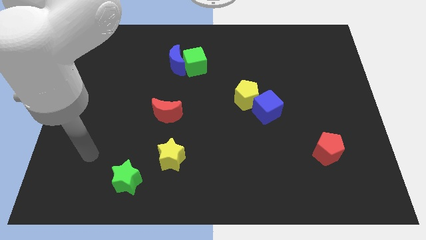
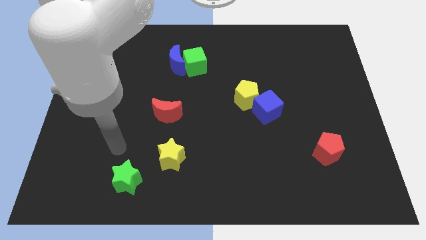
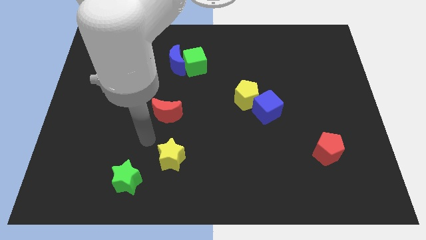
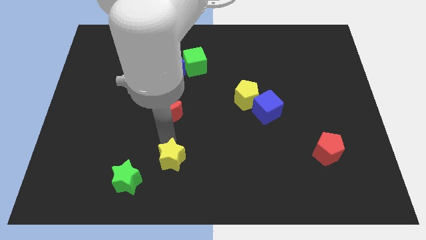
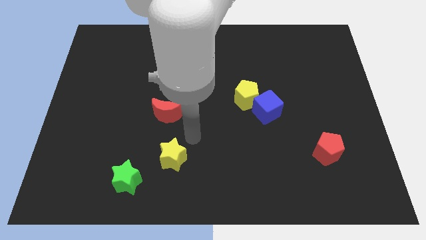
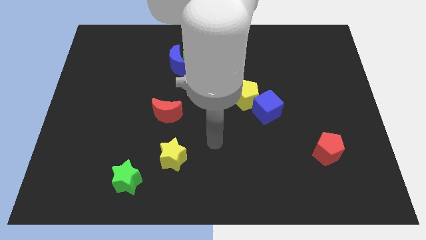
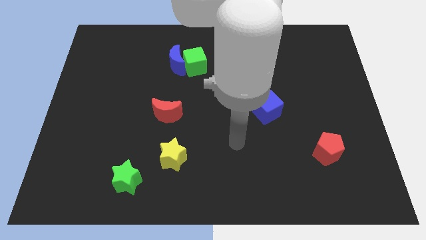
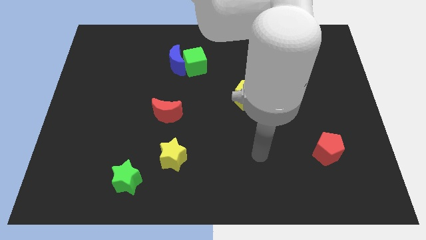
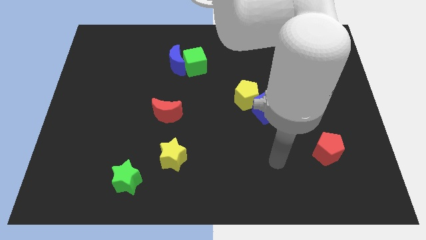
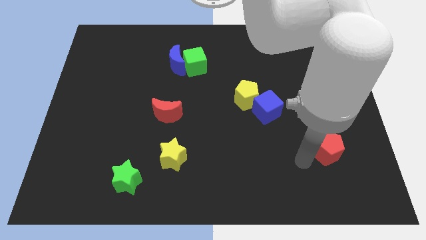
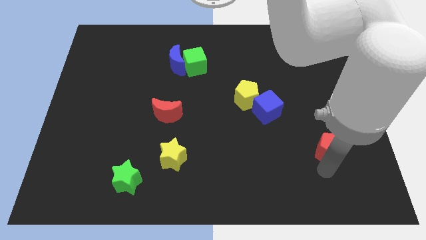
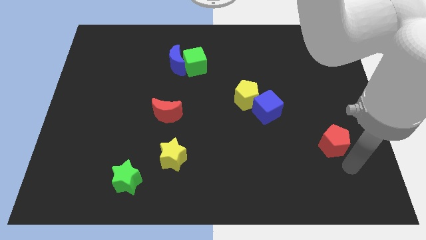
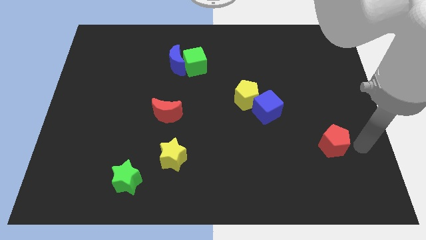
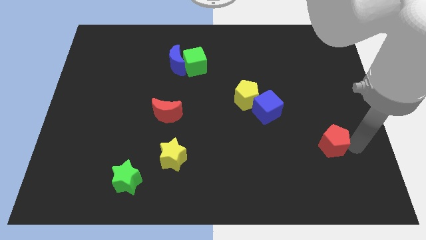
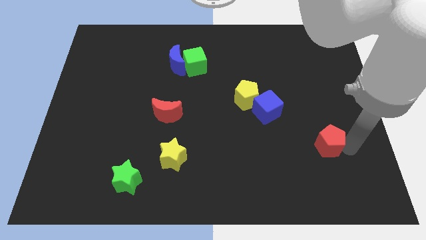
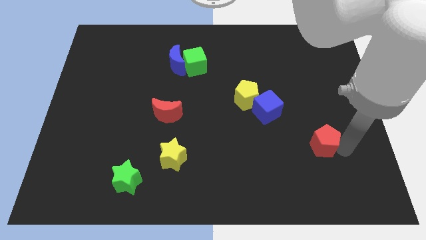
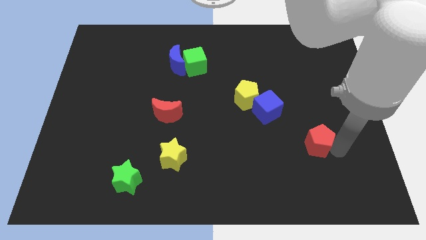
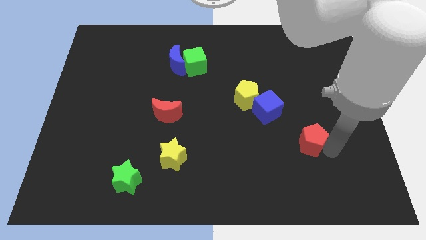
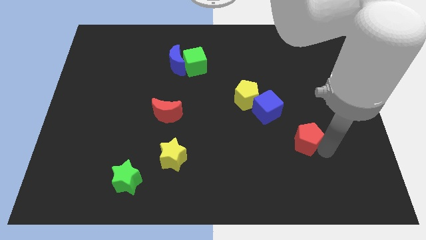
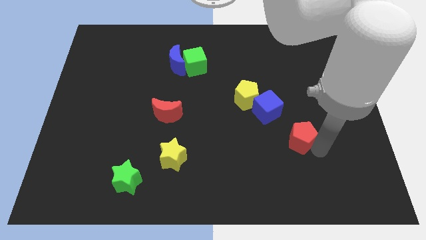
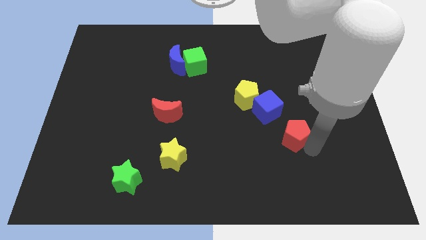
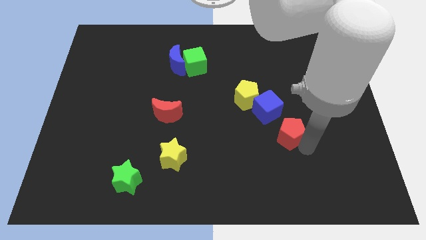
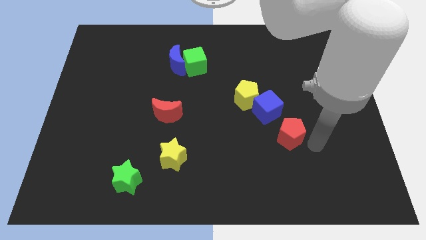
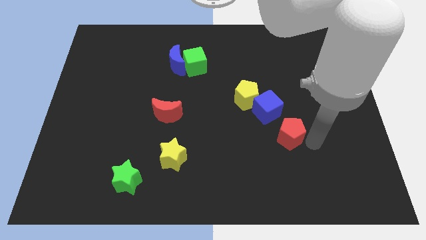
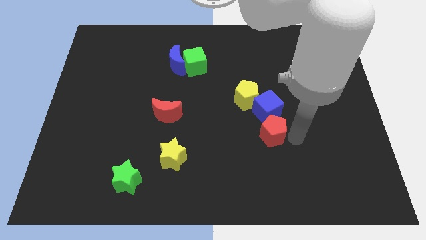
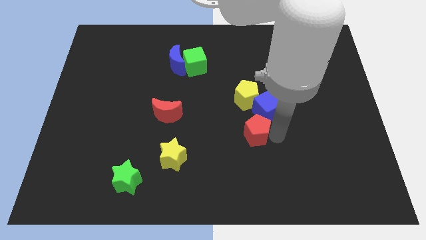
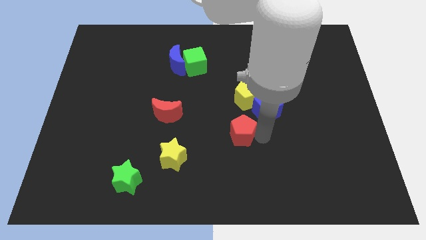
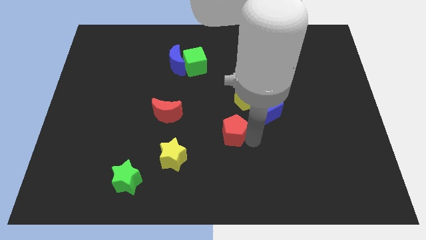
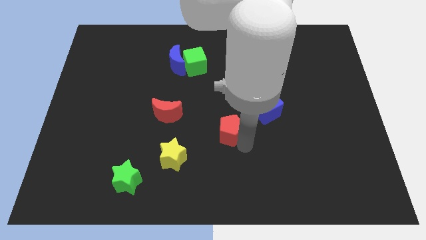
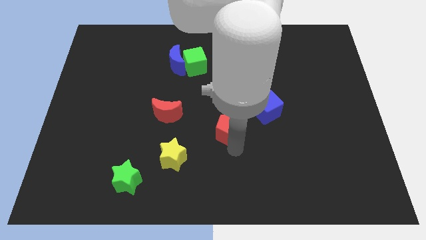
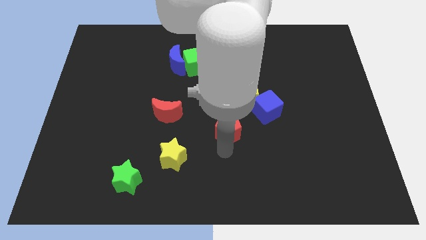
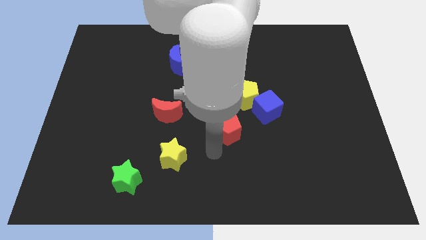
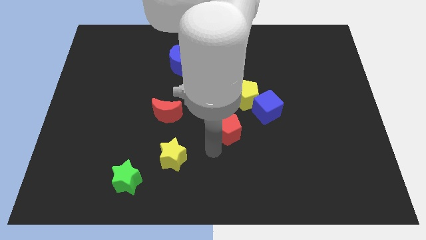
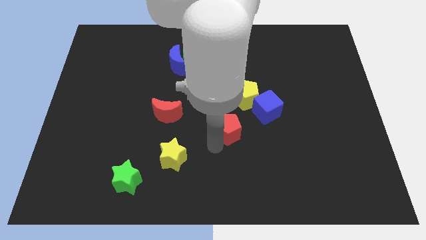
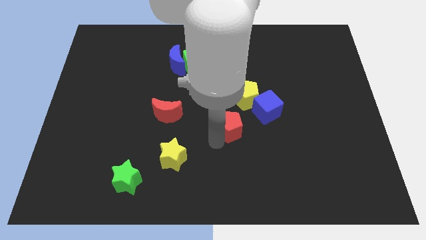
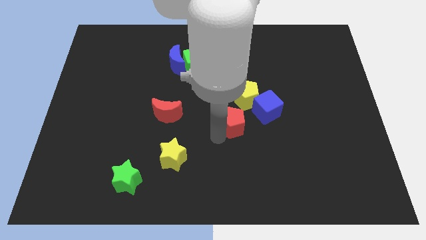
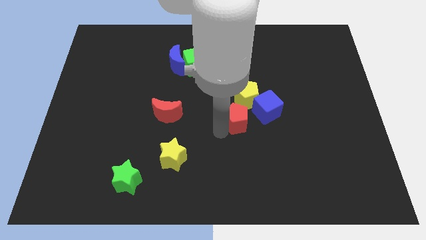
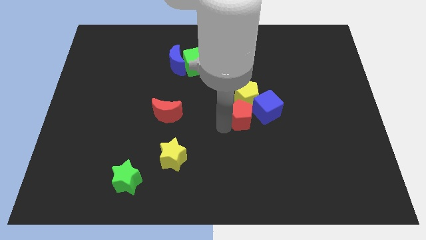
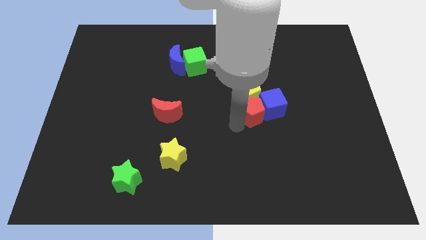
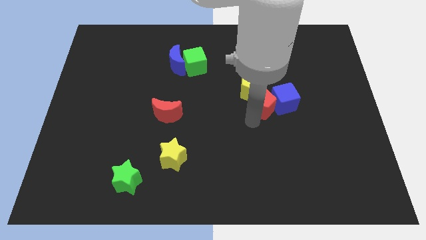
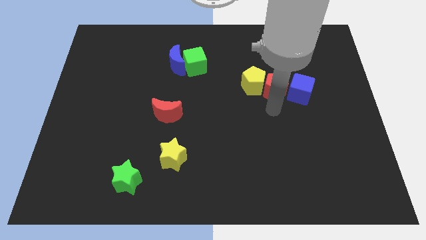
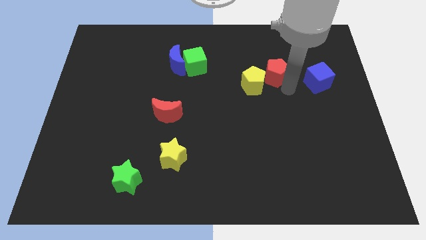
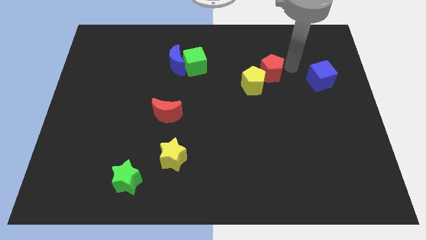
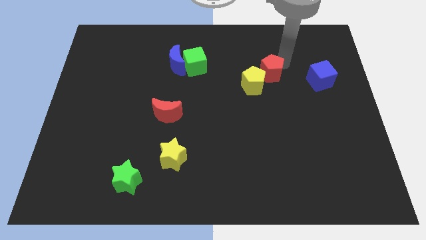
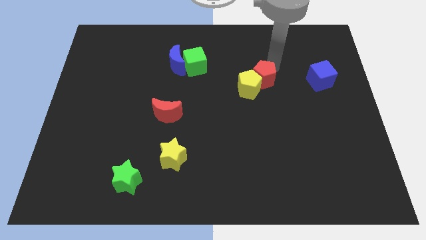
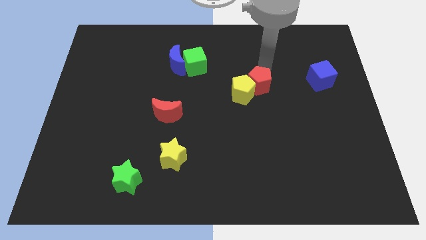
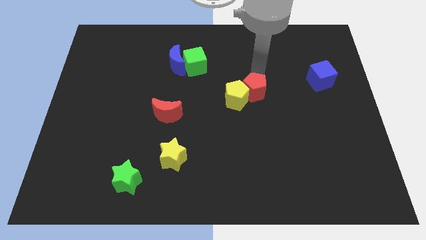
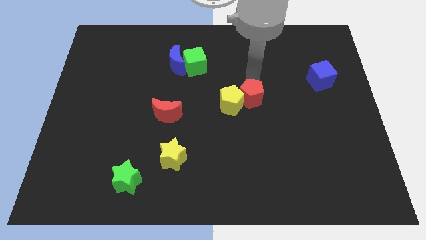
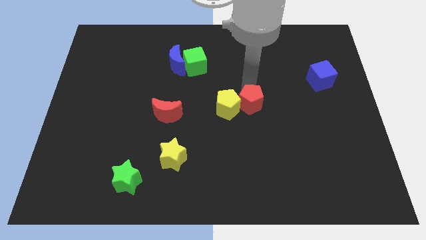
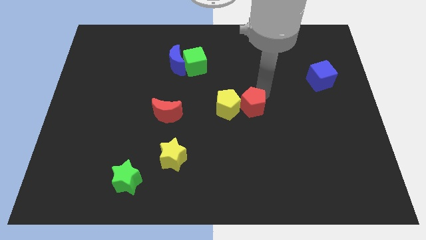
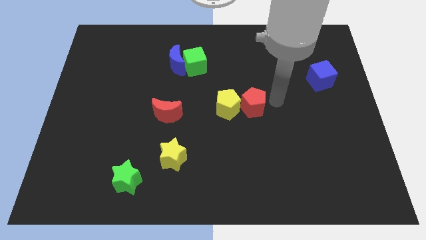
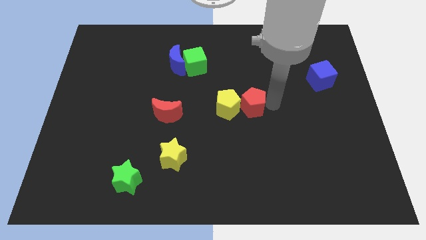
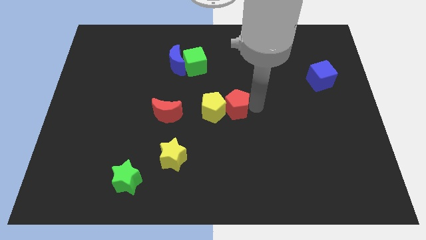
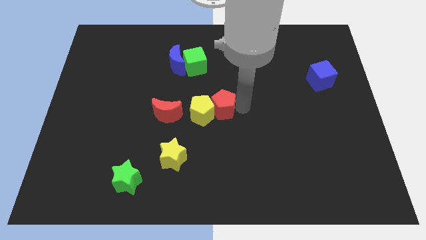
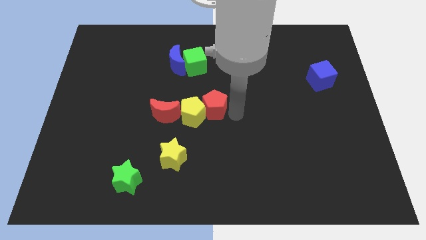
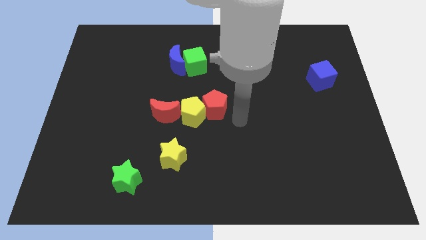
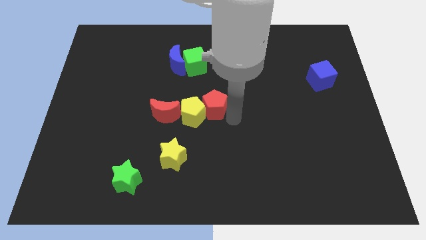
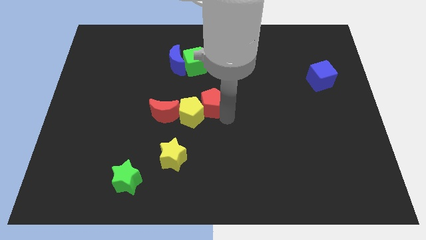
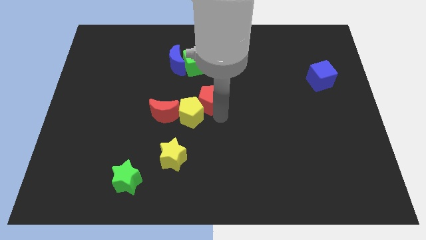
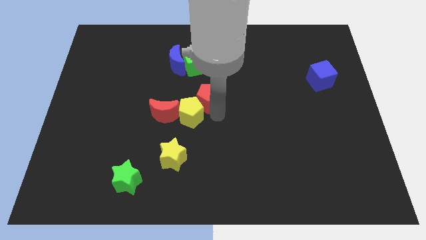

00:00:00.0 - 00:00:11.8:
move the red pentagon diagonally up and to the right of the red moon

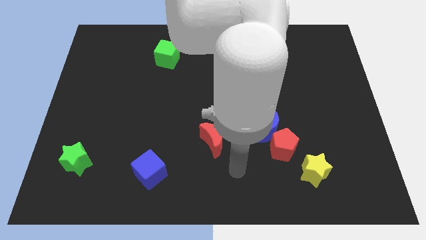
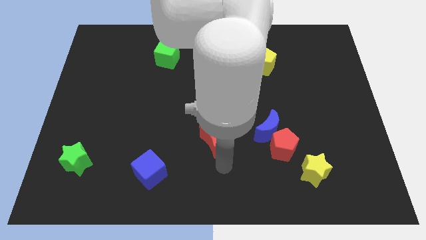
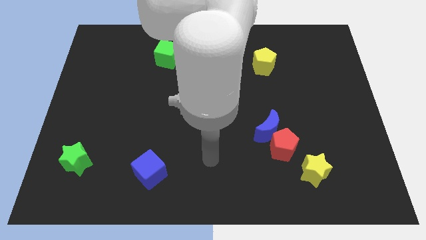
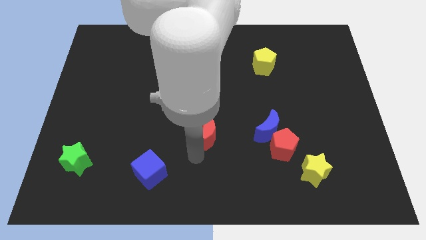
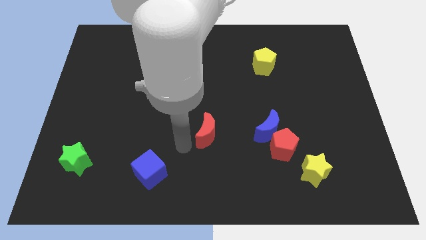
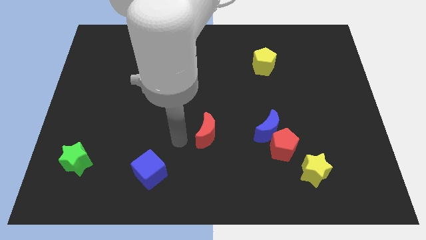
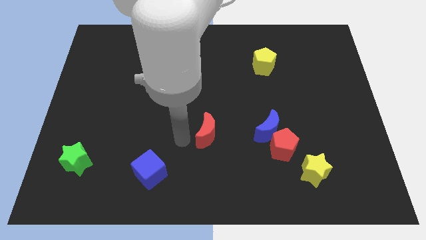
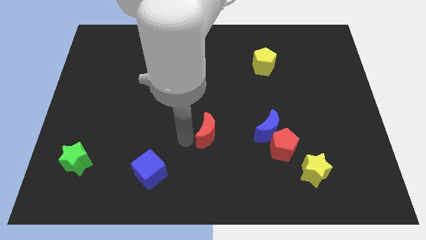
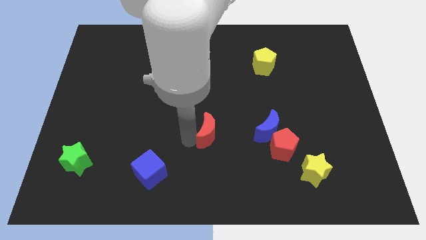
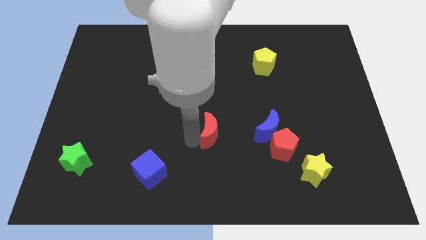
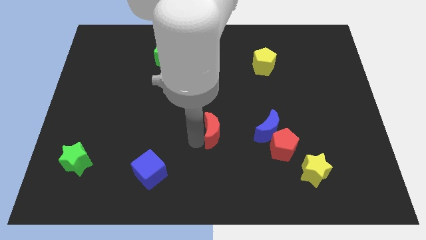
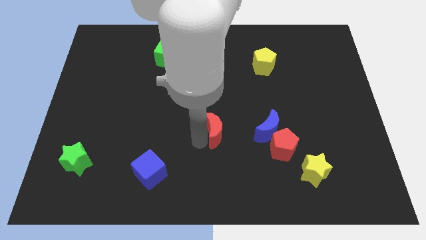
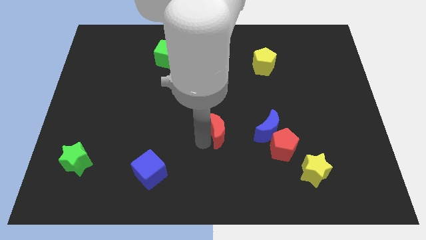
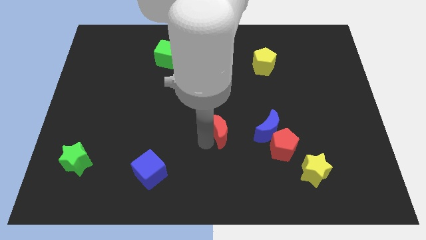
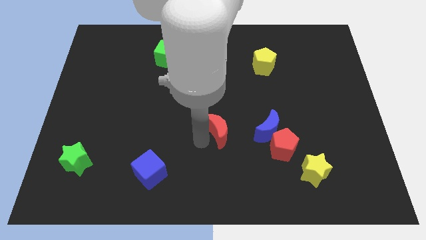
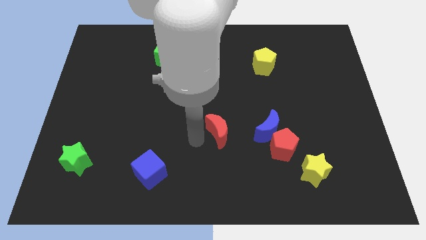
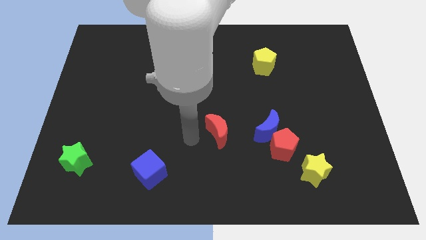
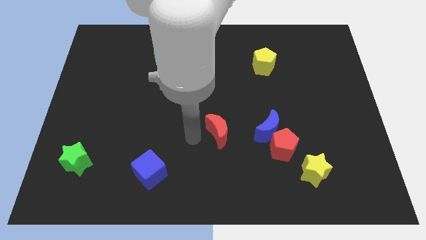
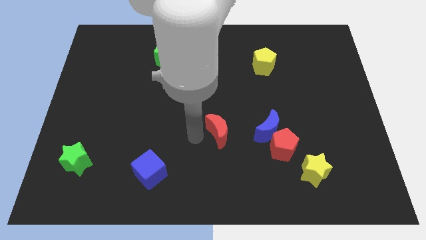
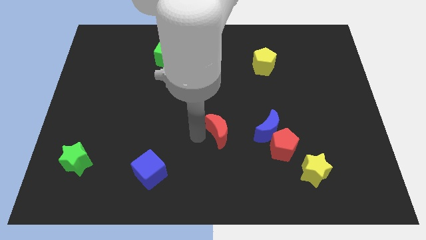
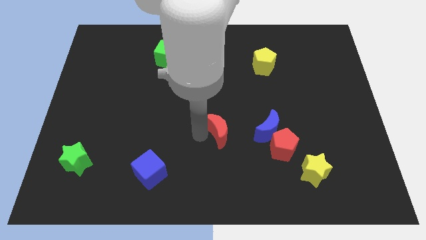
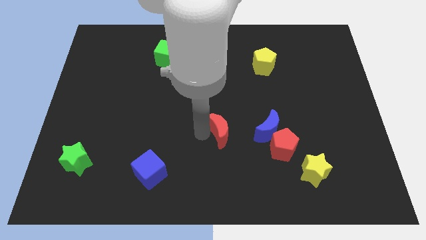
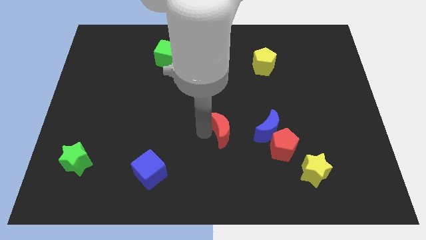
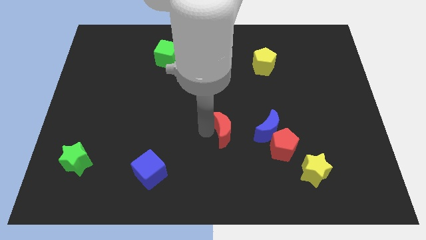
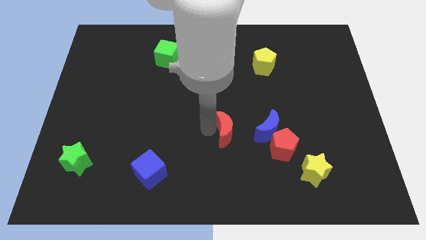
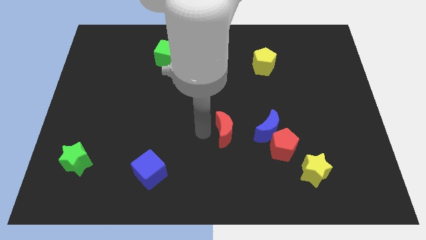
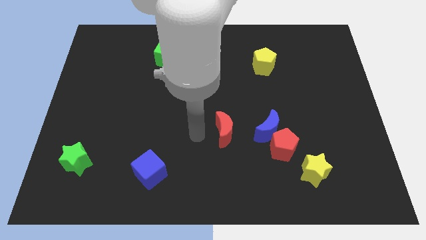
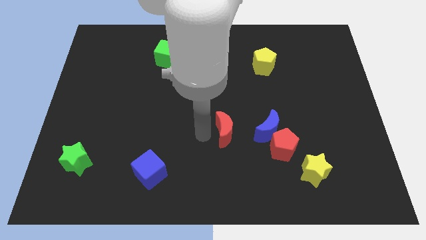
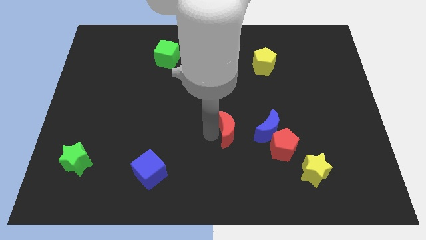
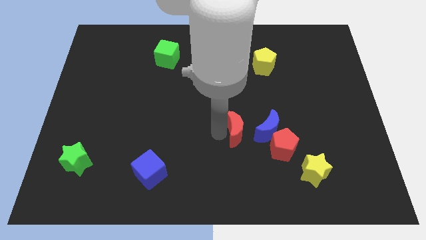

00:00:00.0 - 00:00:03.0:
move the red moon to the top left side of the red pentagon
